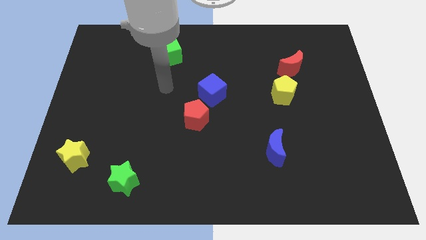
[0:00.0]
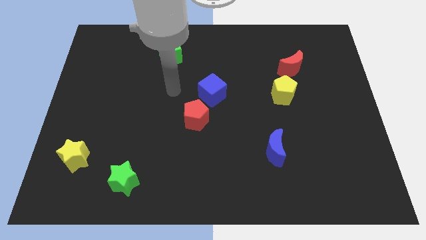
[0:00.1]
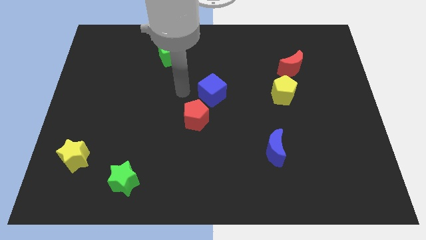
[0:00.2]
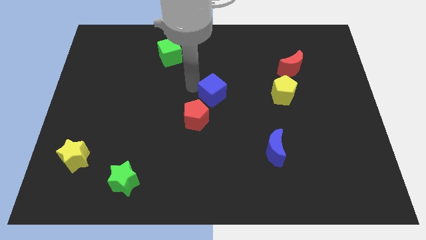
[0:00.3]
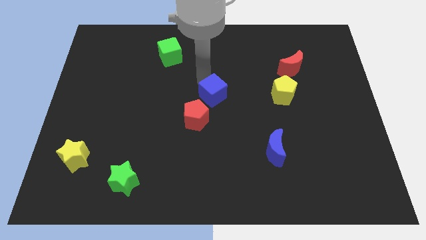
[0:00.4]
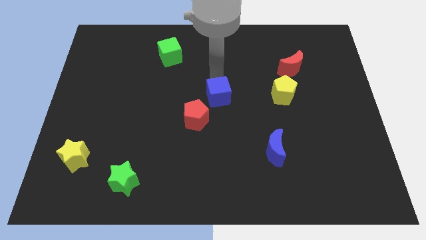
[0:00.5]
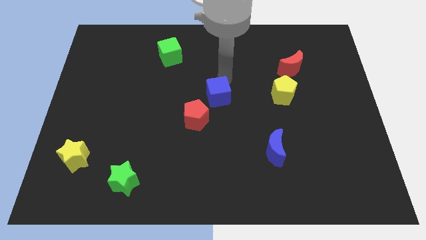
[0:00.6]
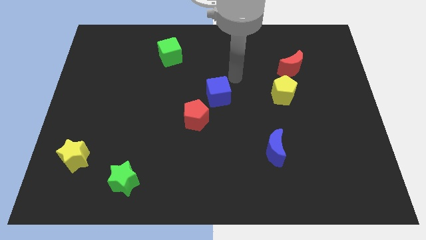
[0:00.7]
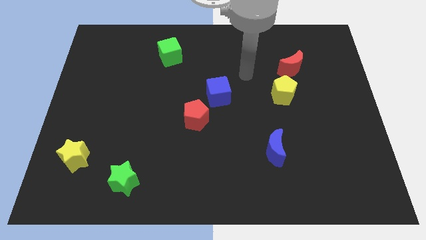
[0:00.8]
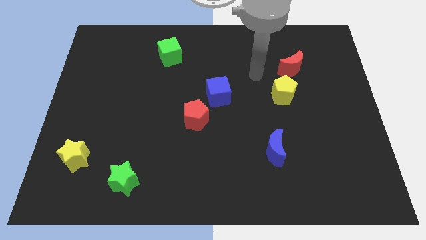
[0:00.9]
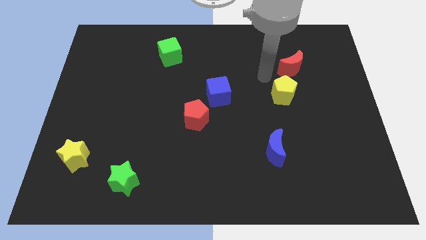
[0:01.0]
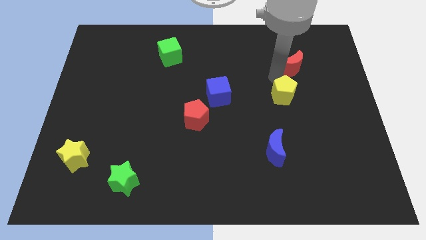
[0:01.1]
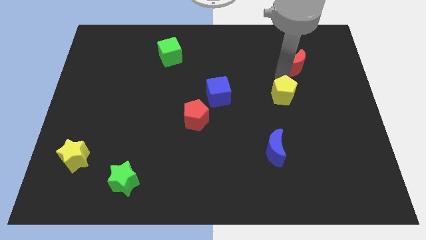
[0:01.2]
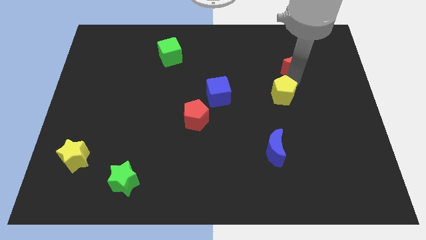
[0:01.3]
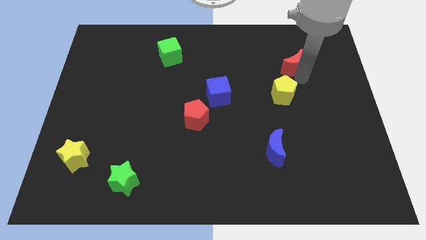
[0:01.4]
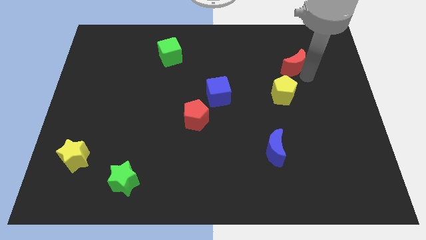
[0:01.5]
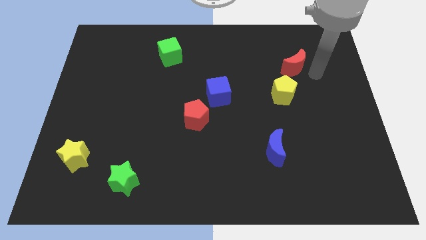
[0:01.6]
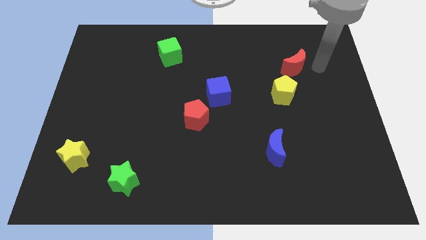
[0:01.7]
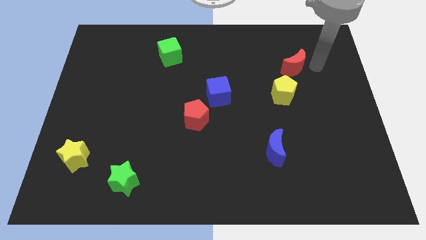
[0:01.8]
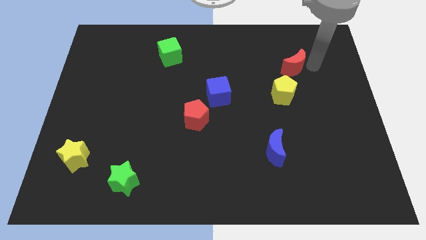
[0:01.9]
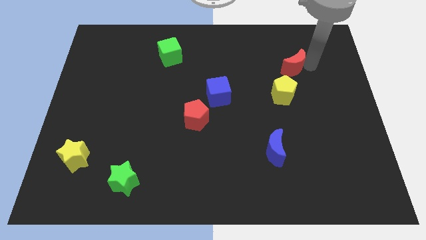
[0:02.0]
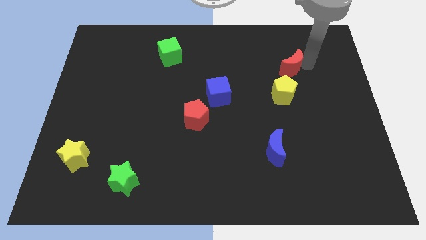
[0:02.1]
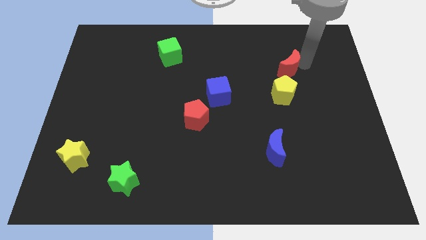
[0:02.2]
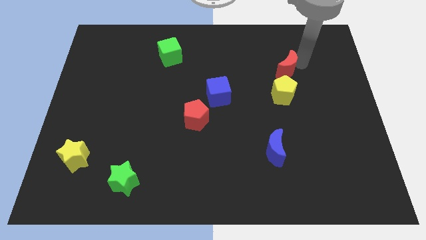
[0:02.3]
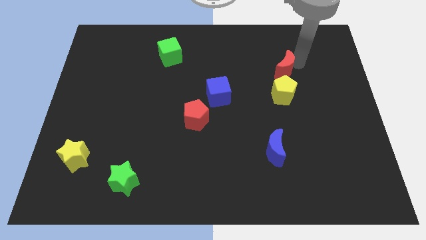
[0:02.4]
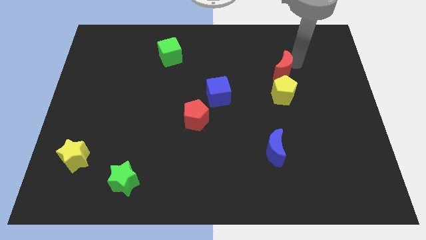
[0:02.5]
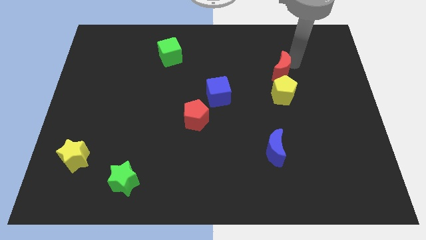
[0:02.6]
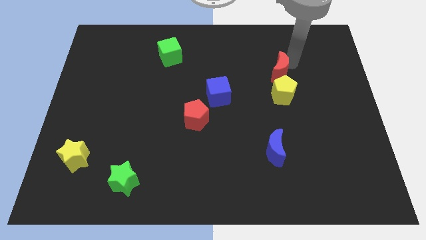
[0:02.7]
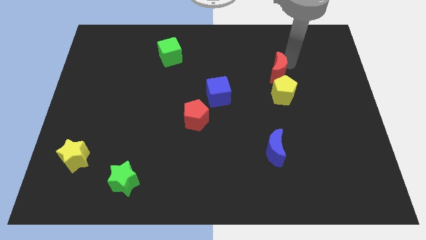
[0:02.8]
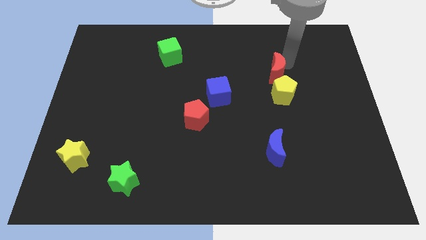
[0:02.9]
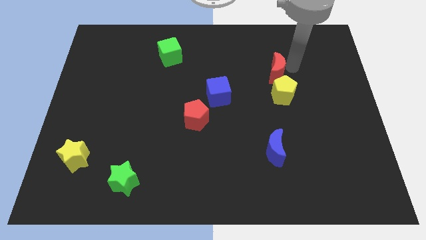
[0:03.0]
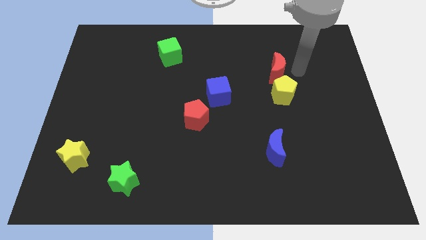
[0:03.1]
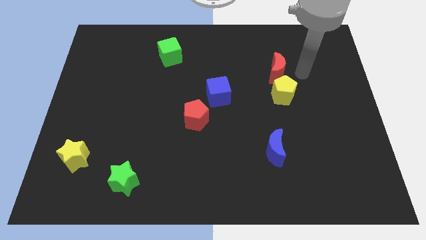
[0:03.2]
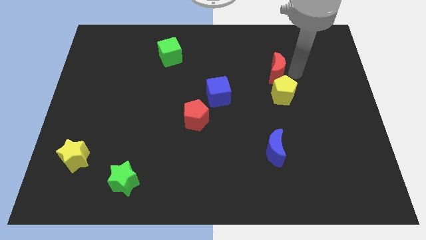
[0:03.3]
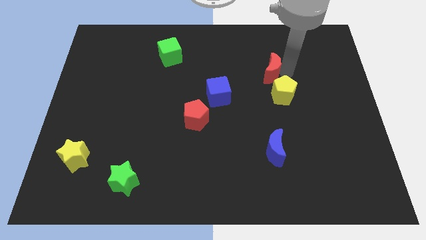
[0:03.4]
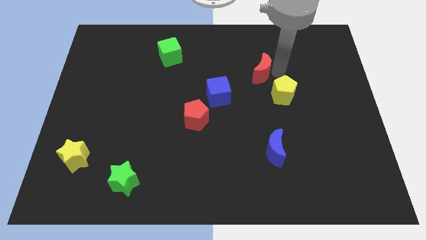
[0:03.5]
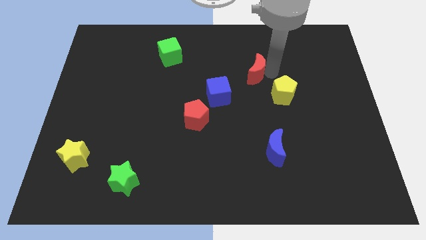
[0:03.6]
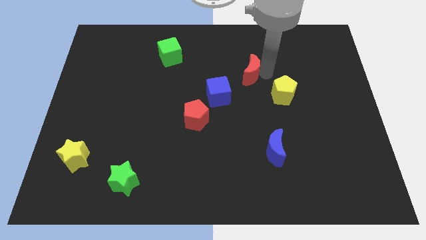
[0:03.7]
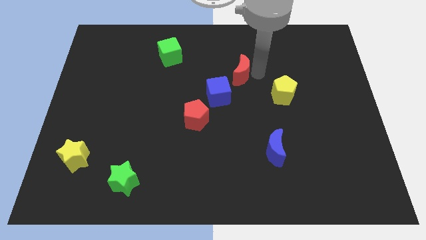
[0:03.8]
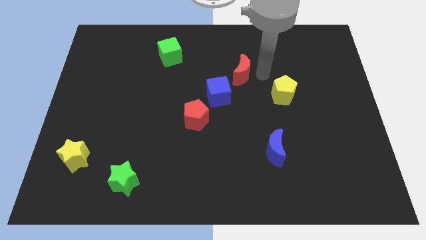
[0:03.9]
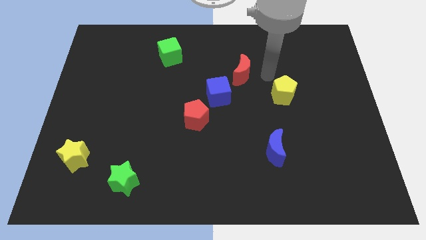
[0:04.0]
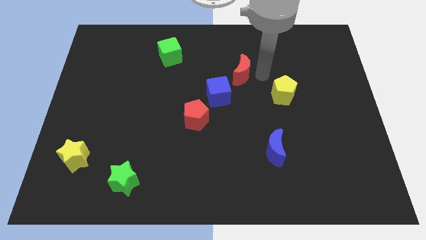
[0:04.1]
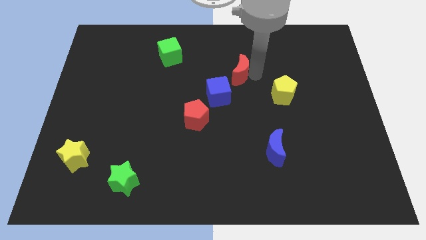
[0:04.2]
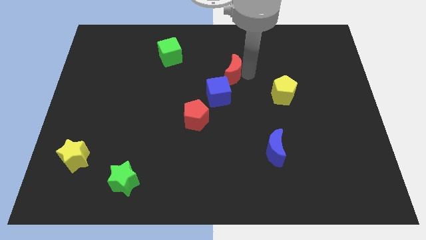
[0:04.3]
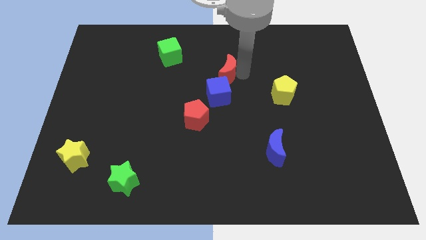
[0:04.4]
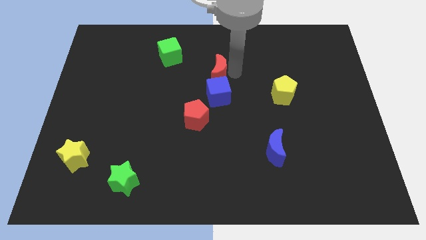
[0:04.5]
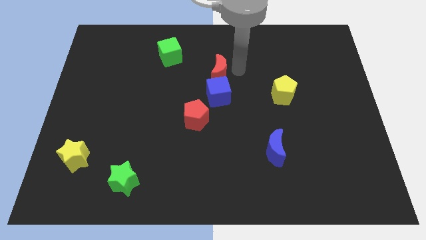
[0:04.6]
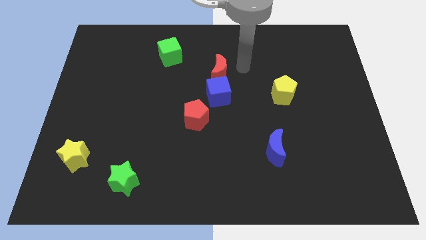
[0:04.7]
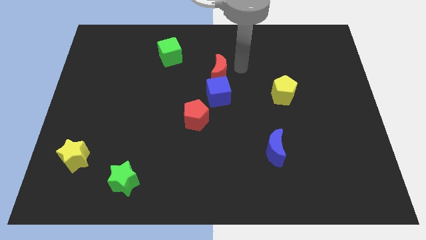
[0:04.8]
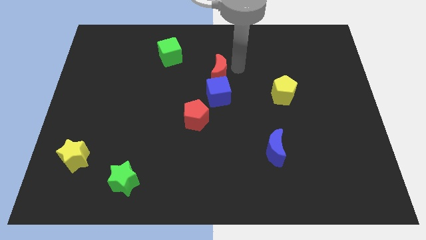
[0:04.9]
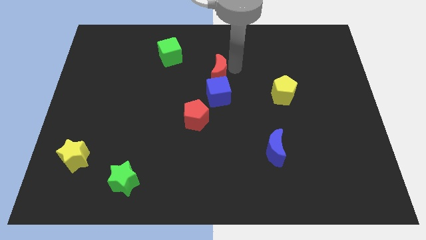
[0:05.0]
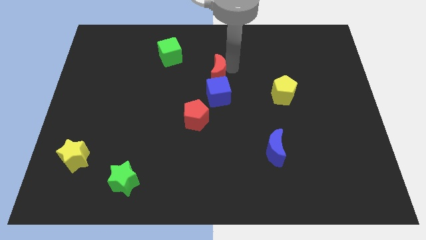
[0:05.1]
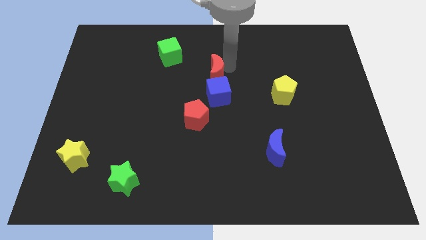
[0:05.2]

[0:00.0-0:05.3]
push the red moon to the top left side of the blue cube

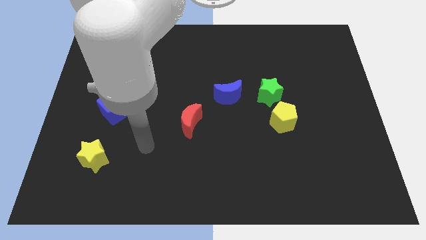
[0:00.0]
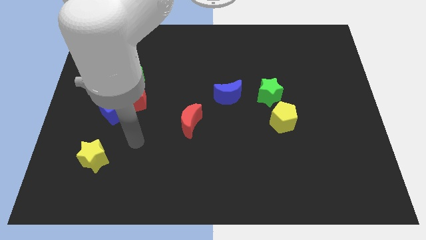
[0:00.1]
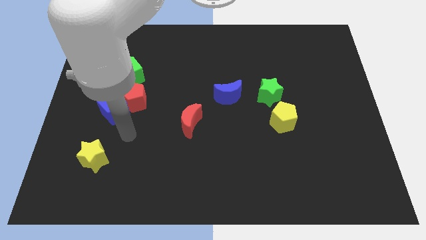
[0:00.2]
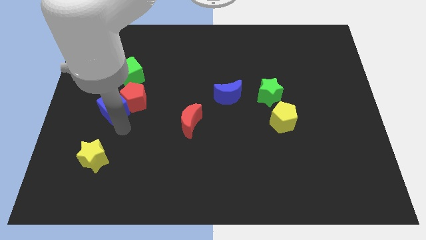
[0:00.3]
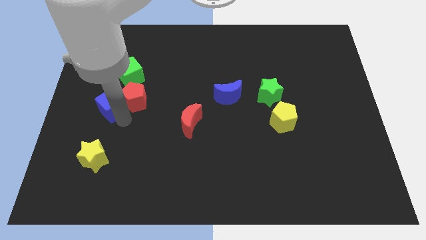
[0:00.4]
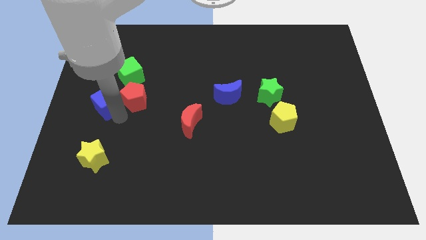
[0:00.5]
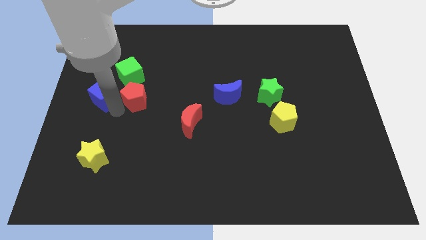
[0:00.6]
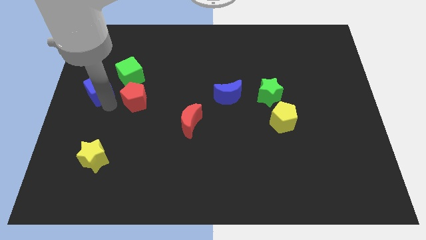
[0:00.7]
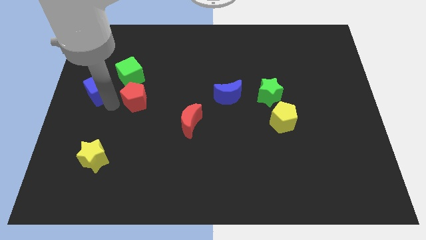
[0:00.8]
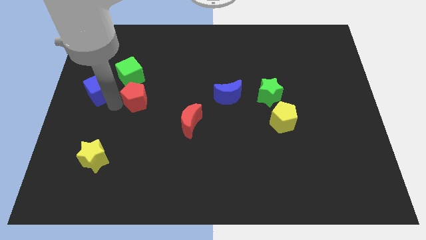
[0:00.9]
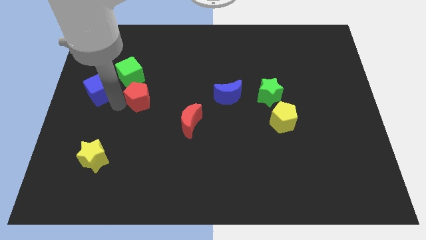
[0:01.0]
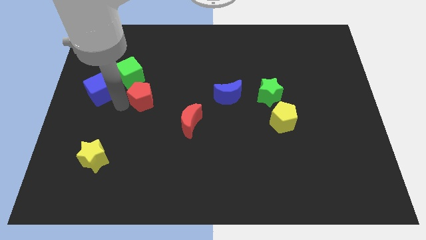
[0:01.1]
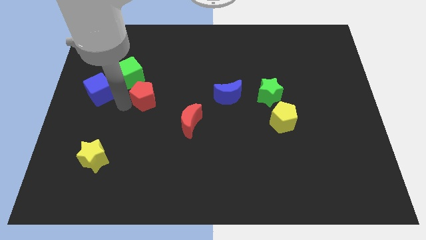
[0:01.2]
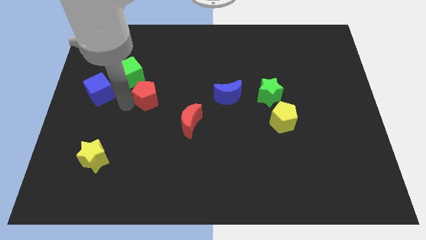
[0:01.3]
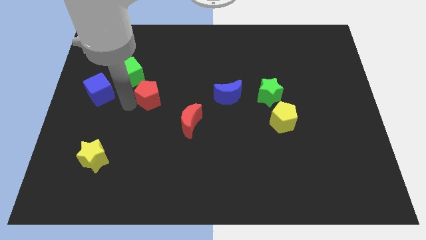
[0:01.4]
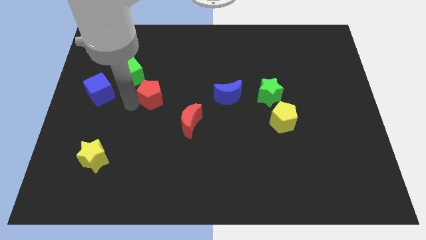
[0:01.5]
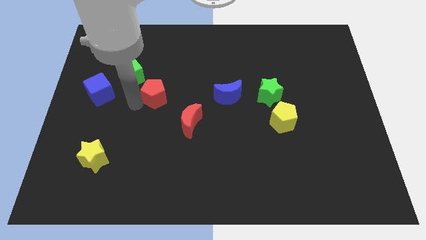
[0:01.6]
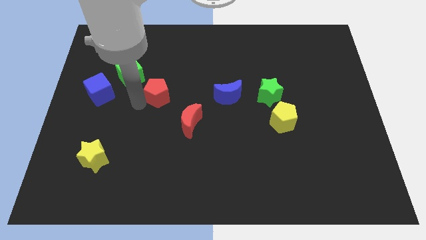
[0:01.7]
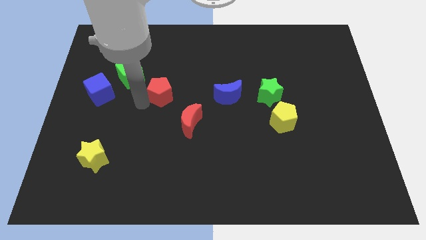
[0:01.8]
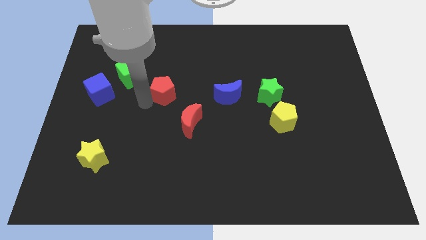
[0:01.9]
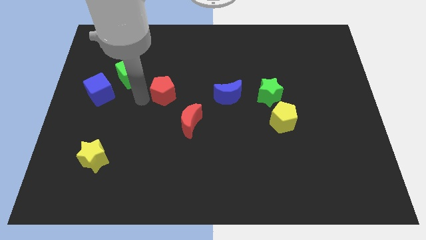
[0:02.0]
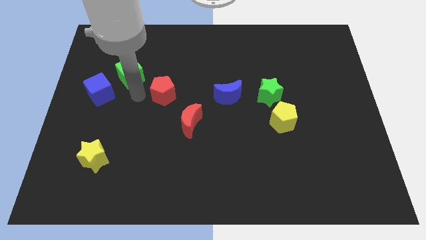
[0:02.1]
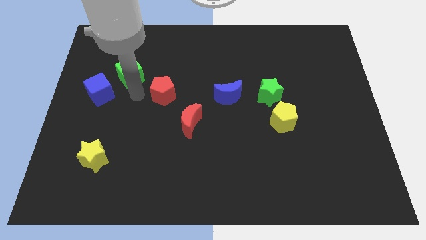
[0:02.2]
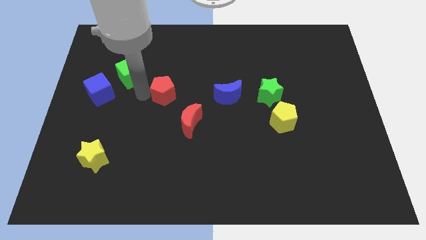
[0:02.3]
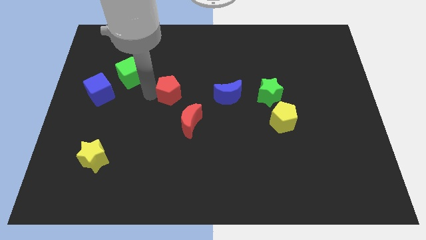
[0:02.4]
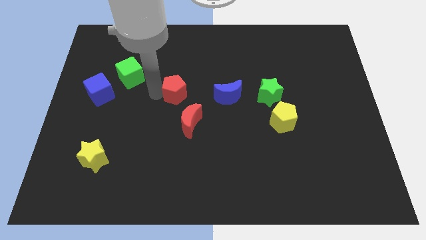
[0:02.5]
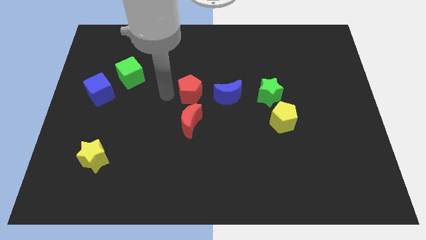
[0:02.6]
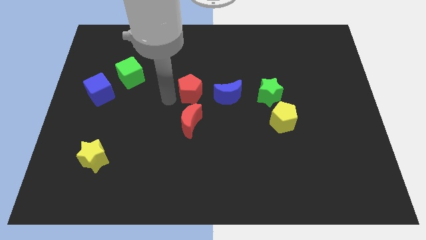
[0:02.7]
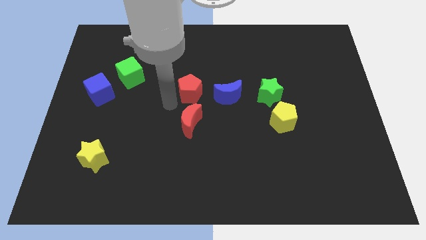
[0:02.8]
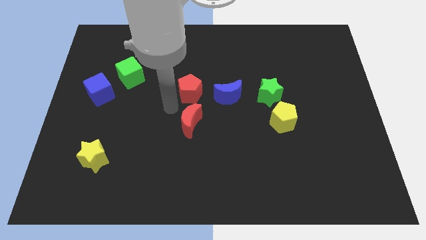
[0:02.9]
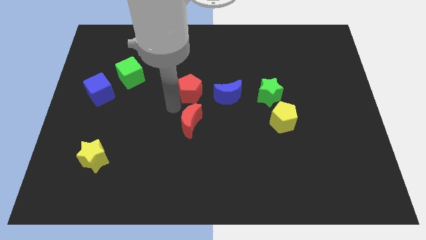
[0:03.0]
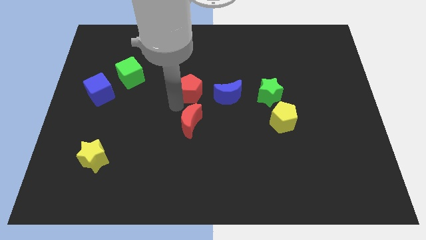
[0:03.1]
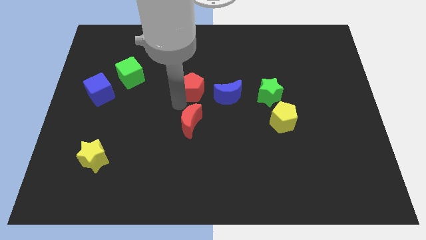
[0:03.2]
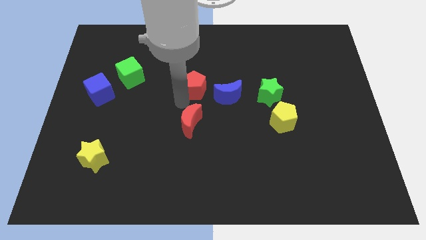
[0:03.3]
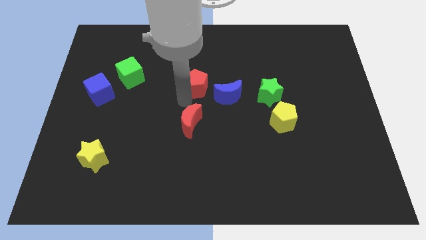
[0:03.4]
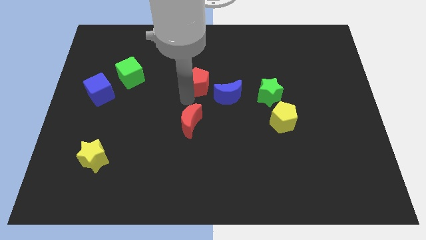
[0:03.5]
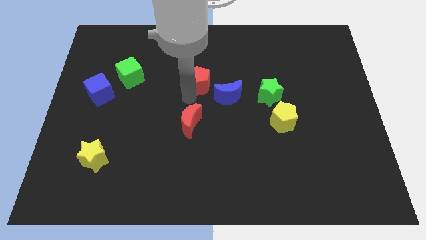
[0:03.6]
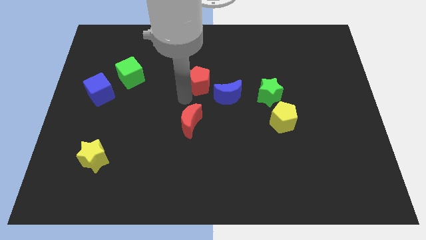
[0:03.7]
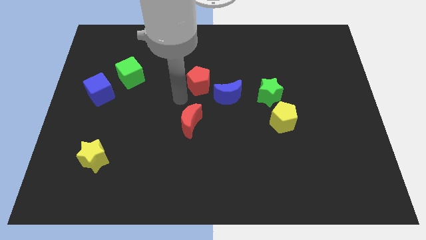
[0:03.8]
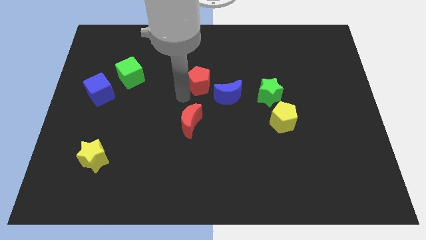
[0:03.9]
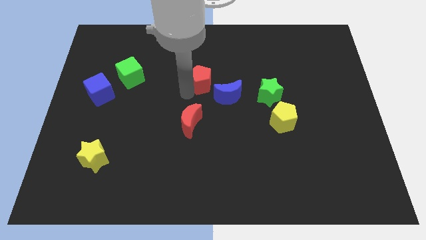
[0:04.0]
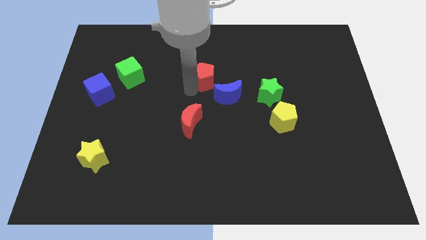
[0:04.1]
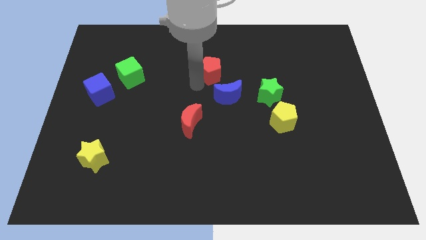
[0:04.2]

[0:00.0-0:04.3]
push the red pentagon to the top of the blue moon
